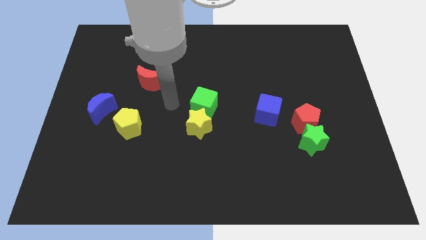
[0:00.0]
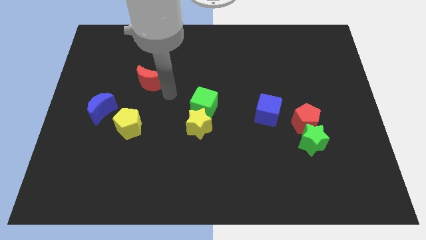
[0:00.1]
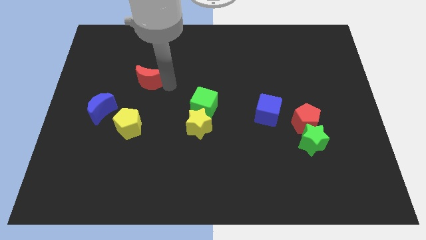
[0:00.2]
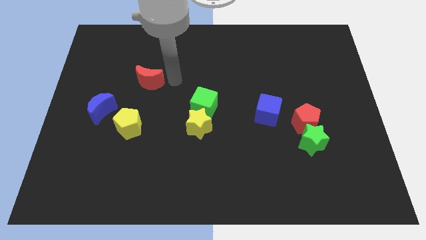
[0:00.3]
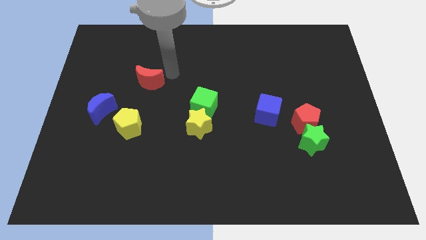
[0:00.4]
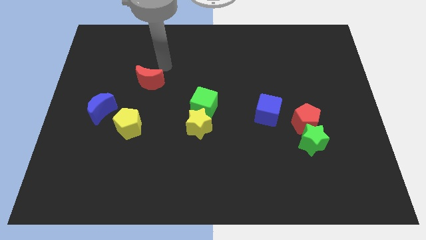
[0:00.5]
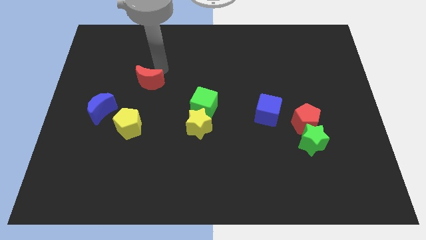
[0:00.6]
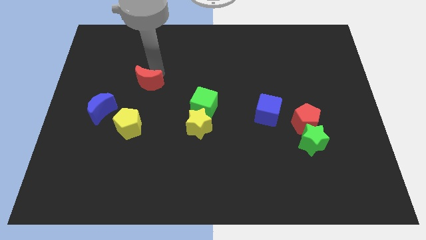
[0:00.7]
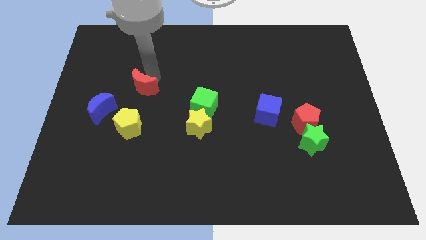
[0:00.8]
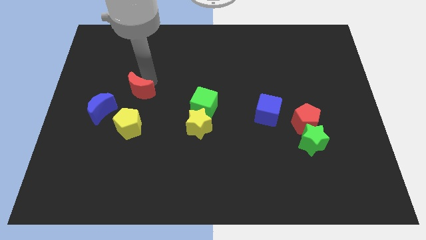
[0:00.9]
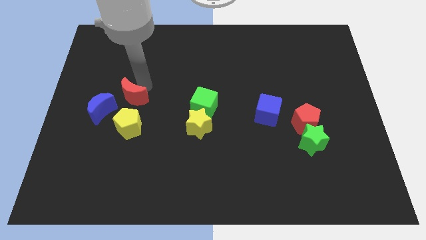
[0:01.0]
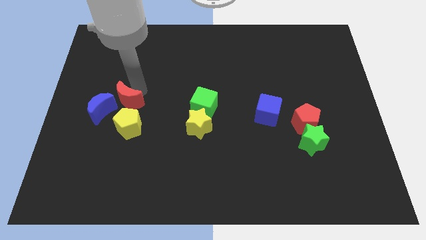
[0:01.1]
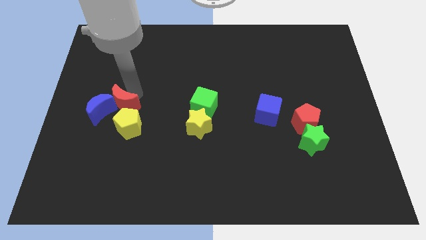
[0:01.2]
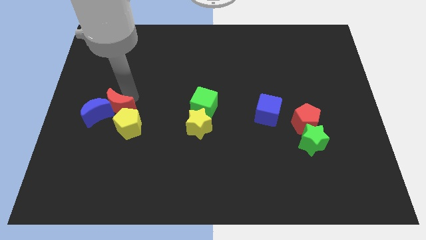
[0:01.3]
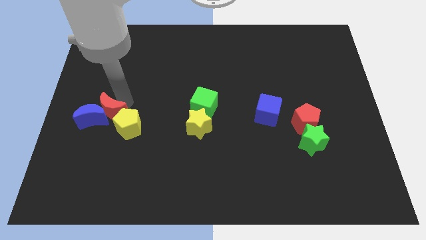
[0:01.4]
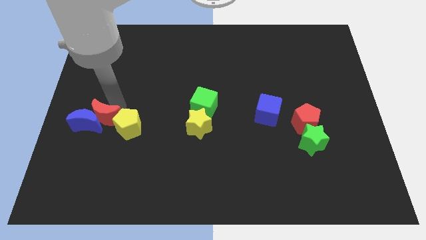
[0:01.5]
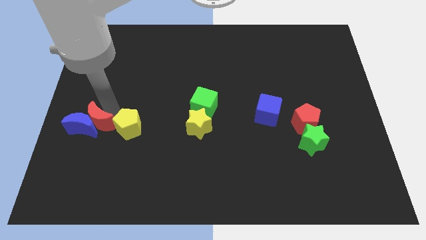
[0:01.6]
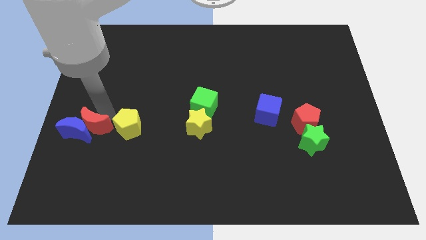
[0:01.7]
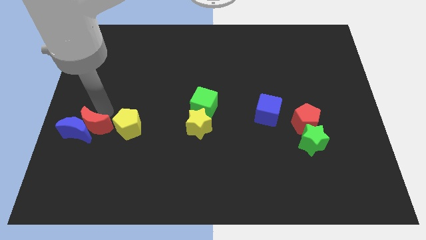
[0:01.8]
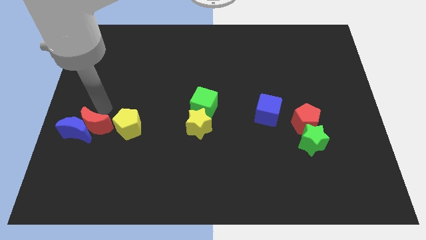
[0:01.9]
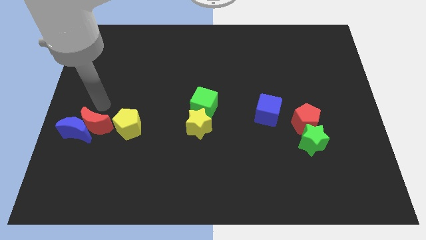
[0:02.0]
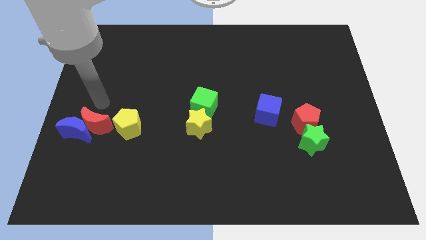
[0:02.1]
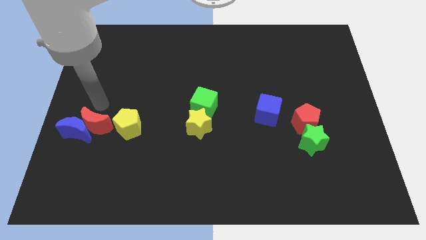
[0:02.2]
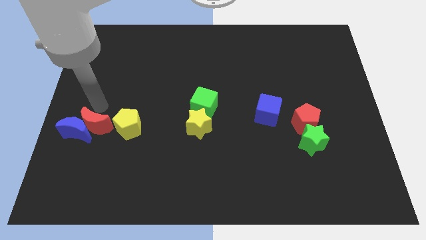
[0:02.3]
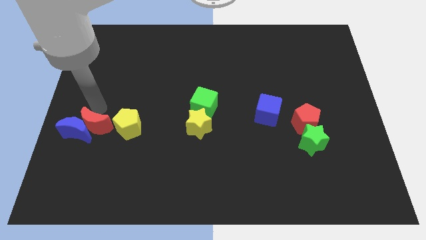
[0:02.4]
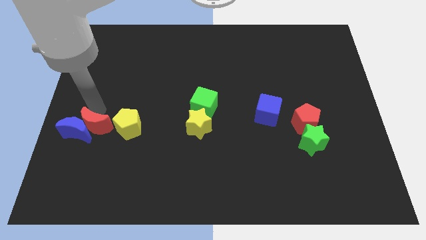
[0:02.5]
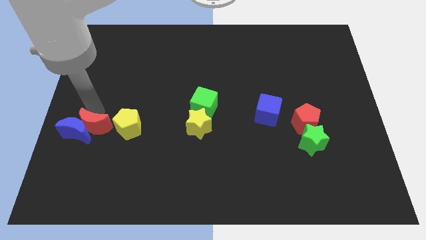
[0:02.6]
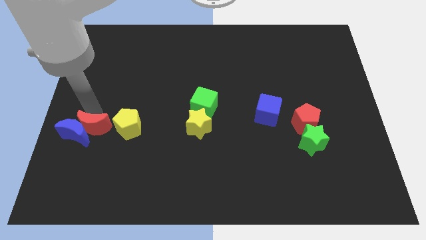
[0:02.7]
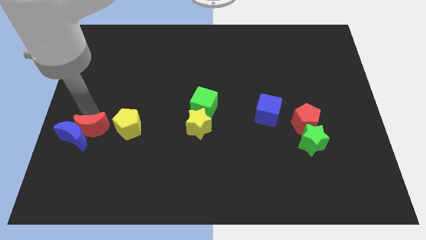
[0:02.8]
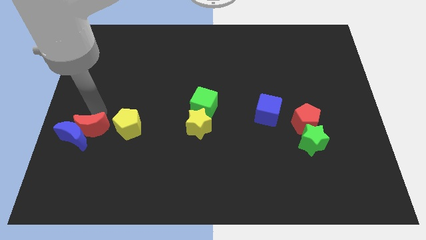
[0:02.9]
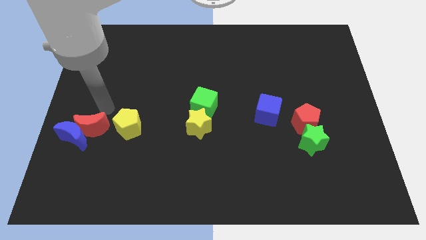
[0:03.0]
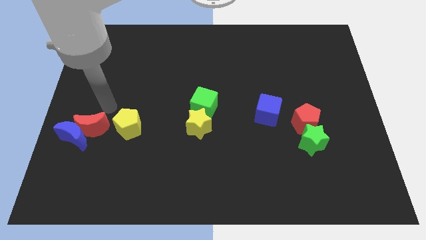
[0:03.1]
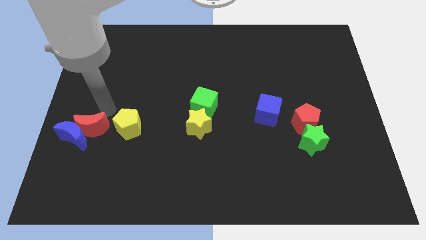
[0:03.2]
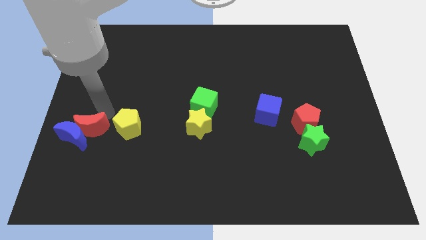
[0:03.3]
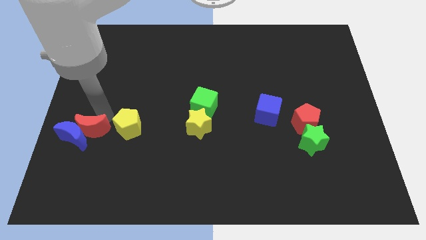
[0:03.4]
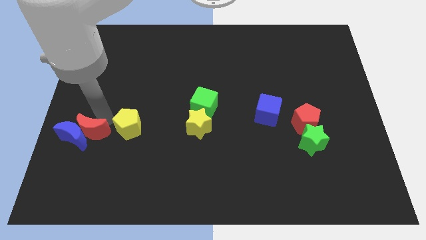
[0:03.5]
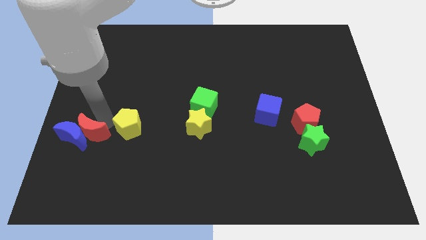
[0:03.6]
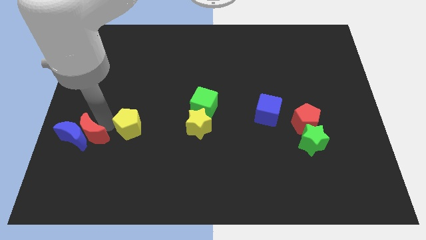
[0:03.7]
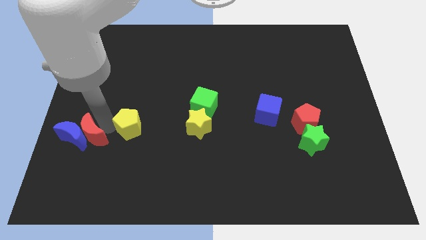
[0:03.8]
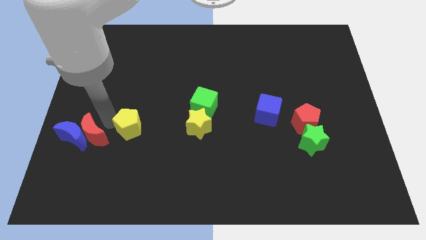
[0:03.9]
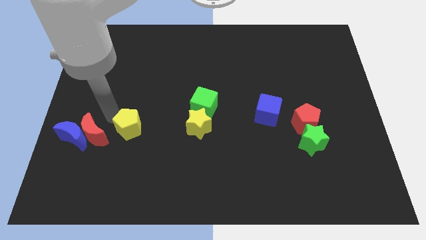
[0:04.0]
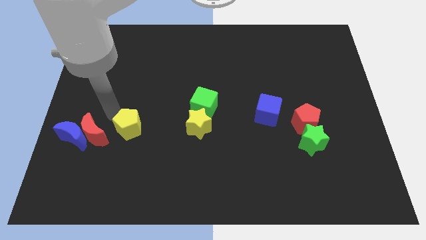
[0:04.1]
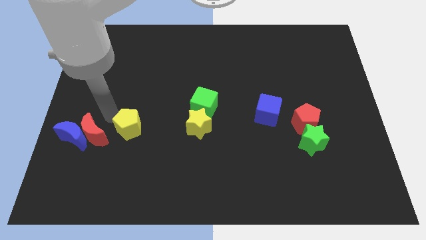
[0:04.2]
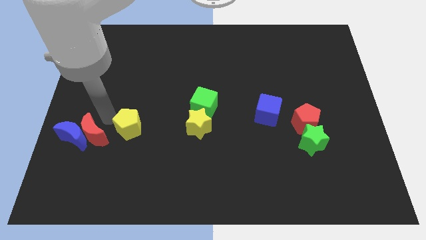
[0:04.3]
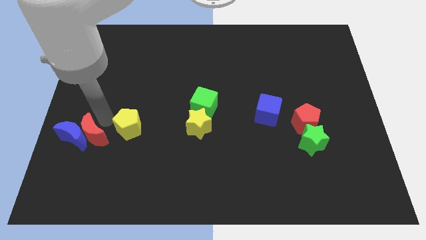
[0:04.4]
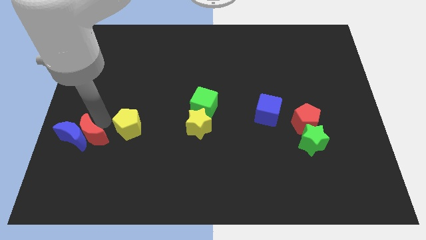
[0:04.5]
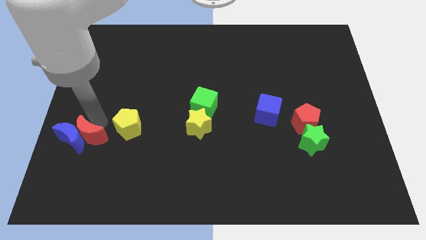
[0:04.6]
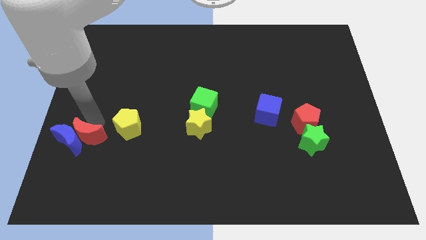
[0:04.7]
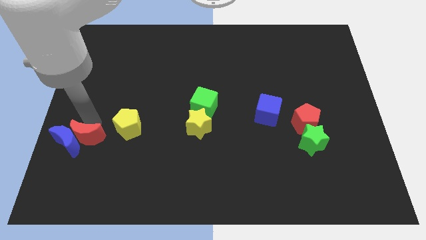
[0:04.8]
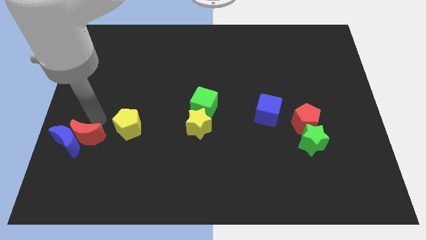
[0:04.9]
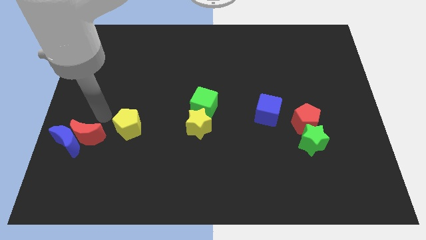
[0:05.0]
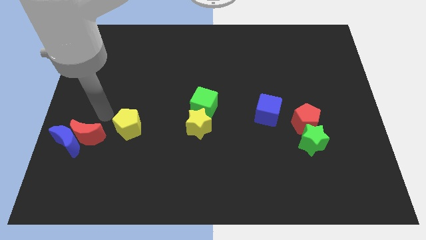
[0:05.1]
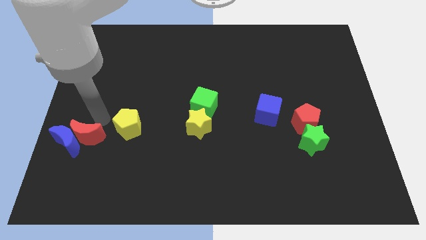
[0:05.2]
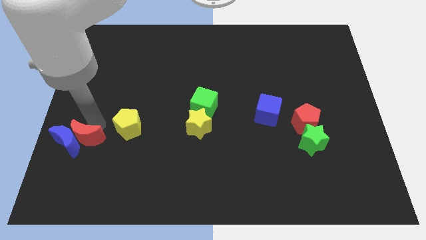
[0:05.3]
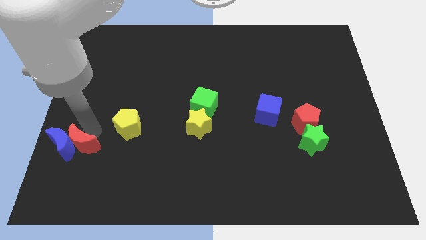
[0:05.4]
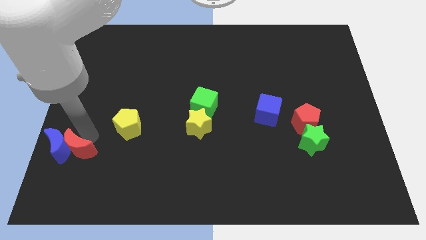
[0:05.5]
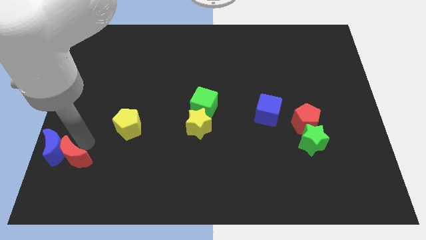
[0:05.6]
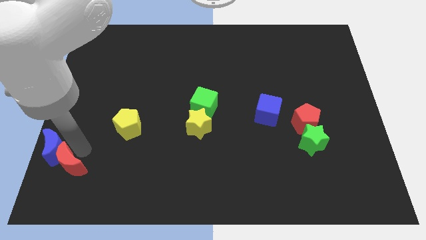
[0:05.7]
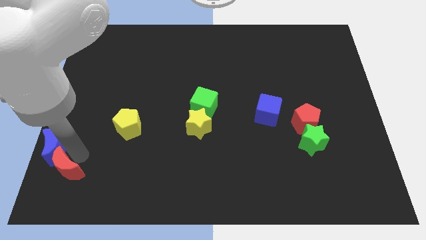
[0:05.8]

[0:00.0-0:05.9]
put the red moon to the lower left corner

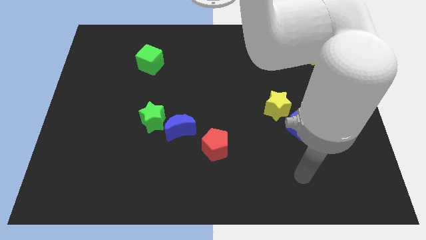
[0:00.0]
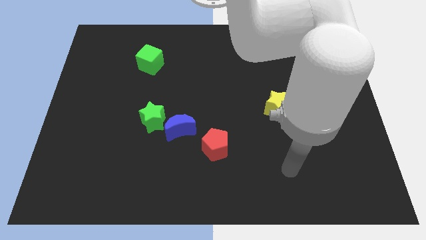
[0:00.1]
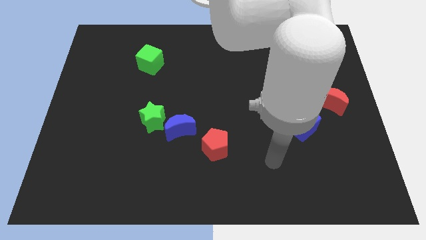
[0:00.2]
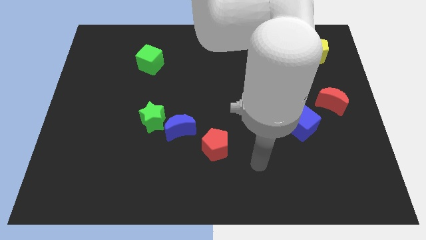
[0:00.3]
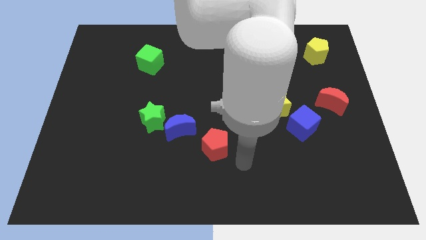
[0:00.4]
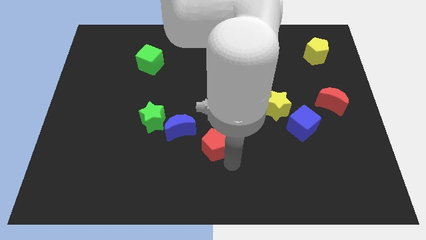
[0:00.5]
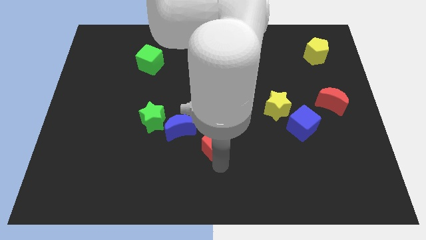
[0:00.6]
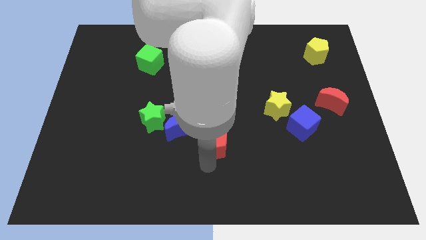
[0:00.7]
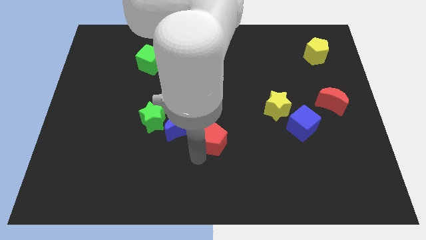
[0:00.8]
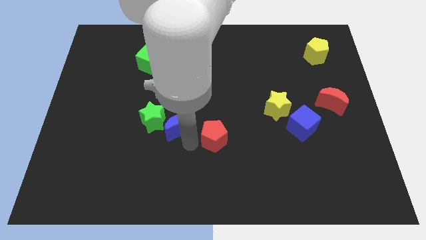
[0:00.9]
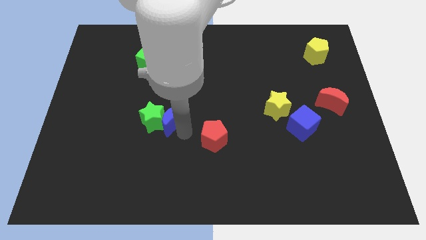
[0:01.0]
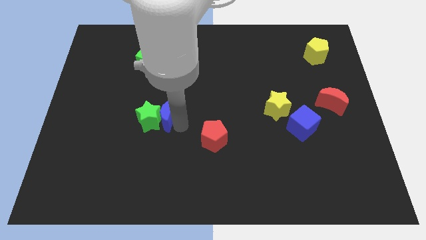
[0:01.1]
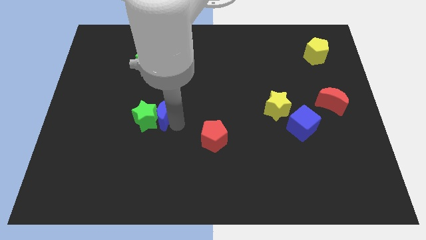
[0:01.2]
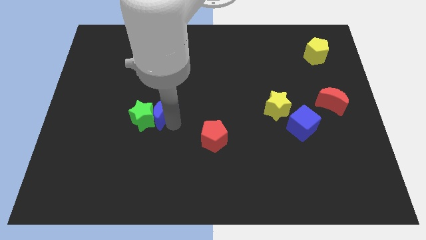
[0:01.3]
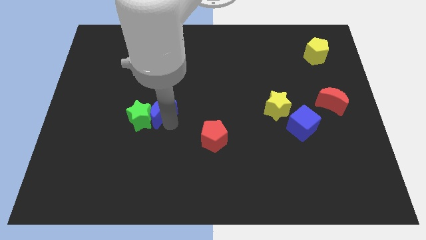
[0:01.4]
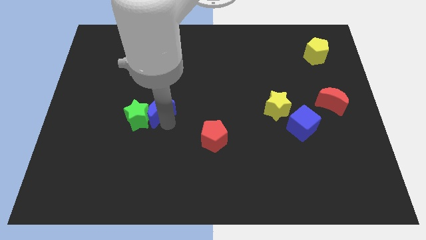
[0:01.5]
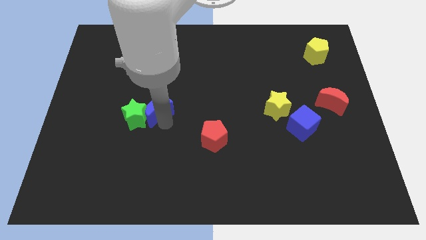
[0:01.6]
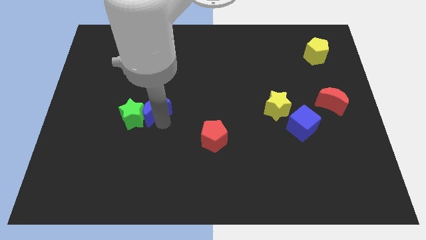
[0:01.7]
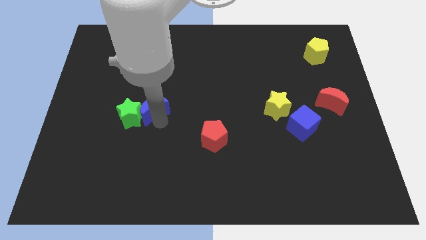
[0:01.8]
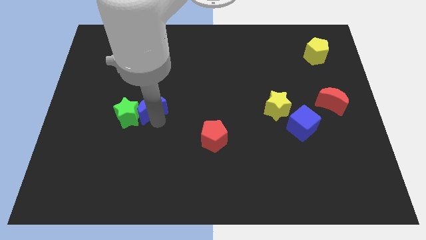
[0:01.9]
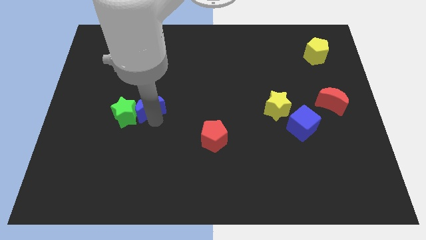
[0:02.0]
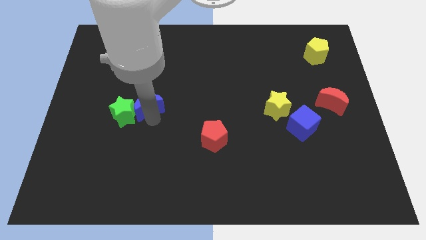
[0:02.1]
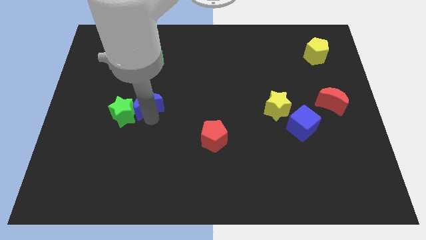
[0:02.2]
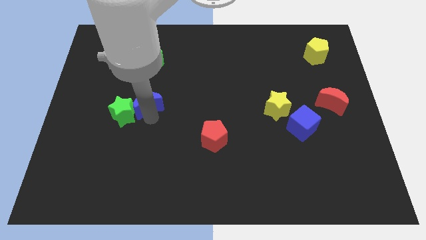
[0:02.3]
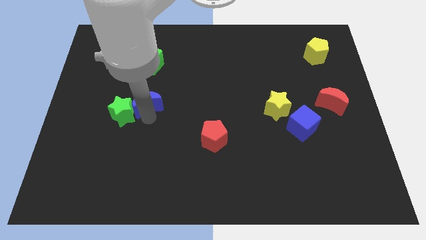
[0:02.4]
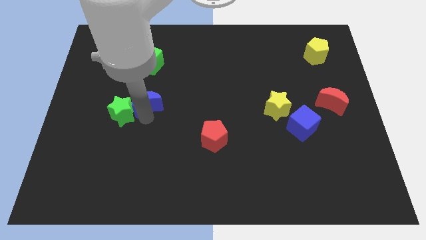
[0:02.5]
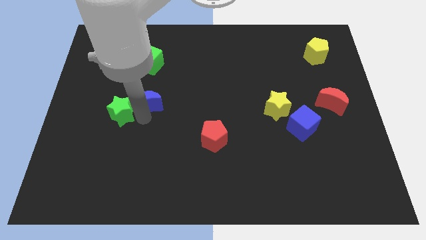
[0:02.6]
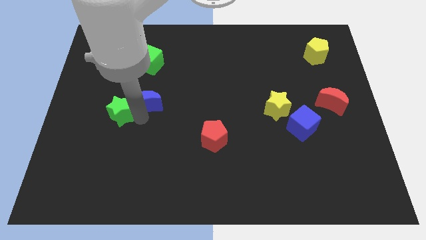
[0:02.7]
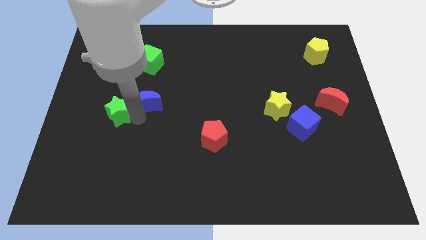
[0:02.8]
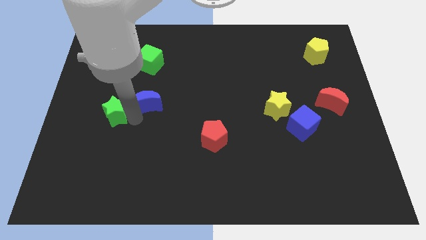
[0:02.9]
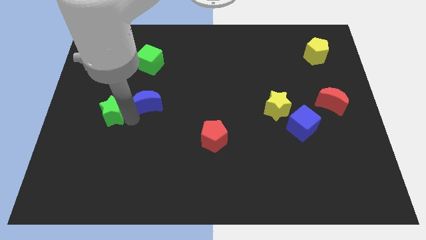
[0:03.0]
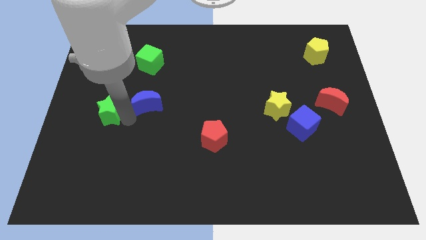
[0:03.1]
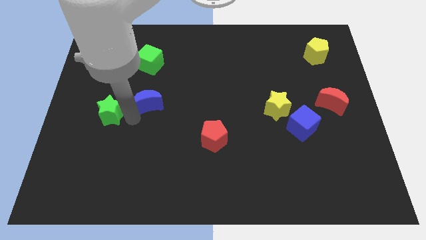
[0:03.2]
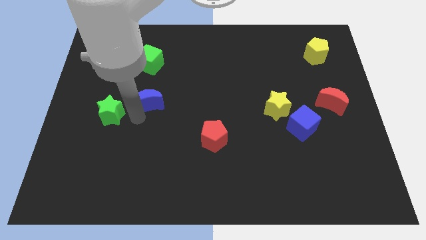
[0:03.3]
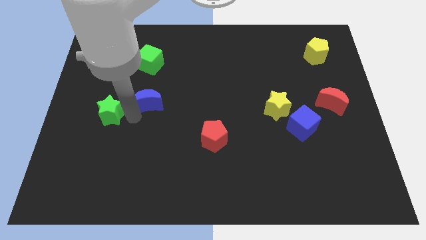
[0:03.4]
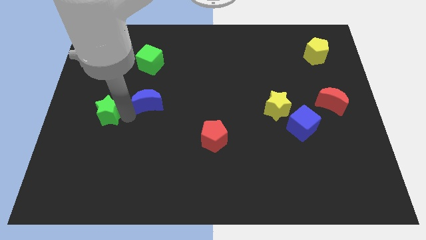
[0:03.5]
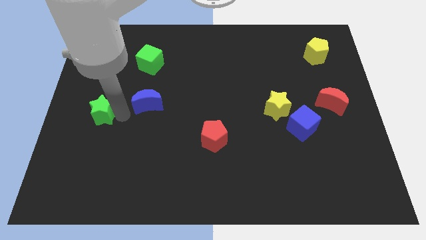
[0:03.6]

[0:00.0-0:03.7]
push the green star to the left side
